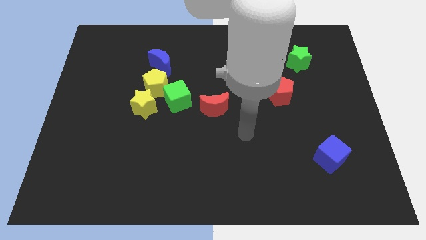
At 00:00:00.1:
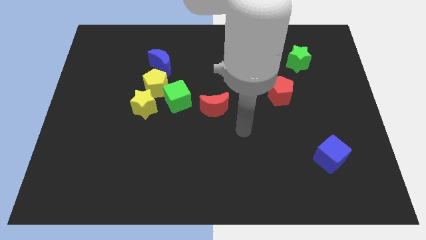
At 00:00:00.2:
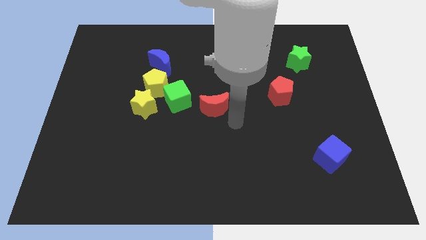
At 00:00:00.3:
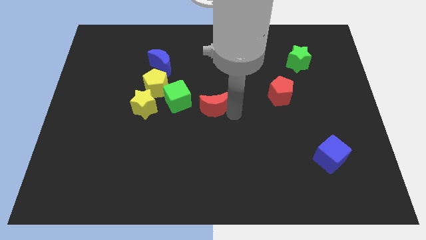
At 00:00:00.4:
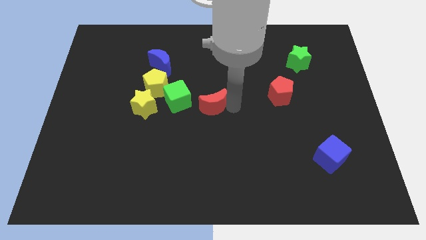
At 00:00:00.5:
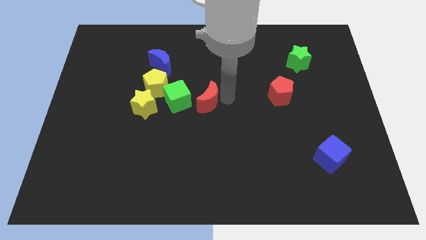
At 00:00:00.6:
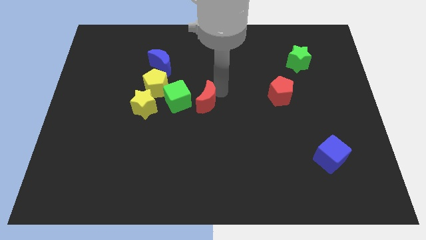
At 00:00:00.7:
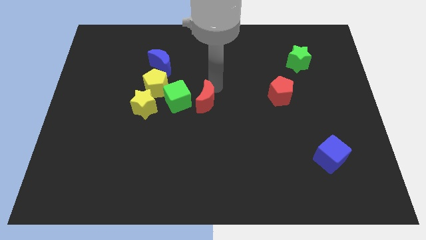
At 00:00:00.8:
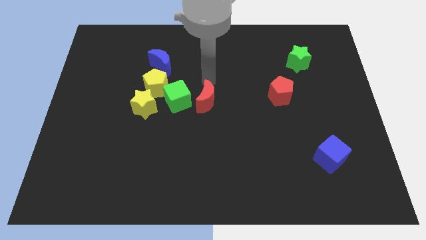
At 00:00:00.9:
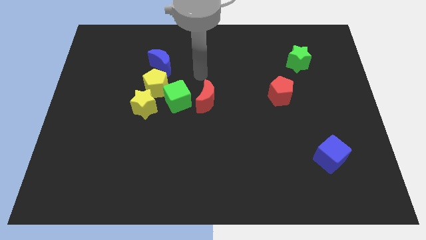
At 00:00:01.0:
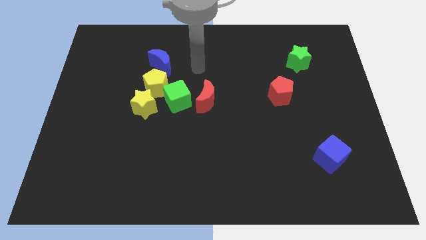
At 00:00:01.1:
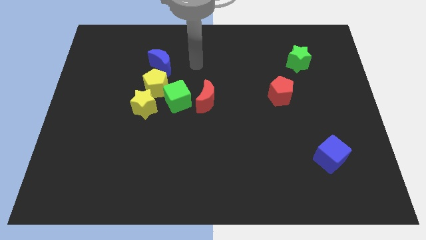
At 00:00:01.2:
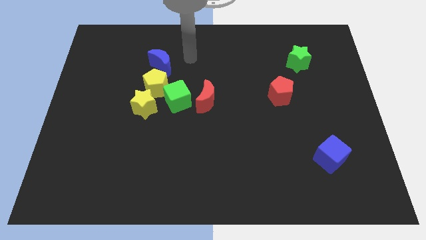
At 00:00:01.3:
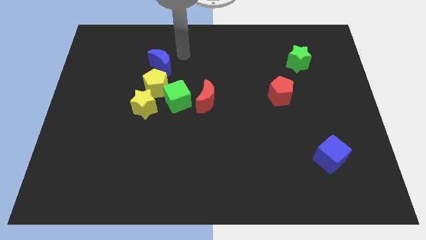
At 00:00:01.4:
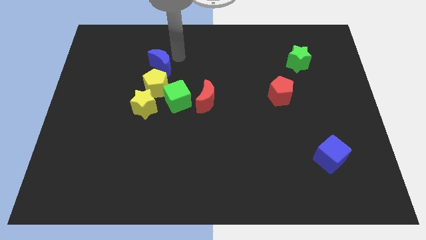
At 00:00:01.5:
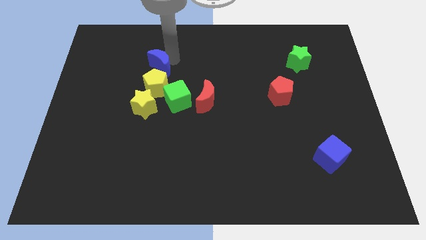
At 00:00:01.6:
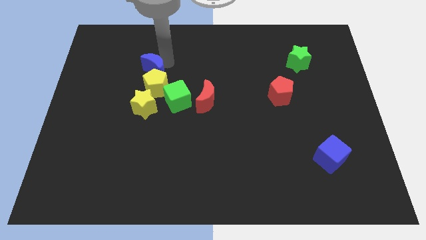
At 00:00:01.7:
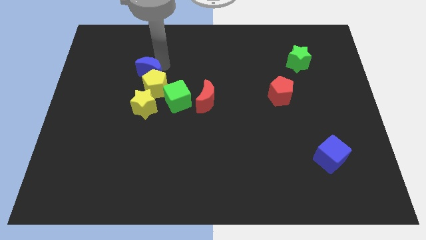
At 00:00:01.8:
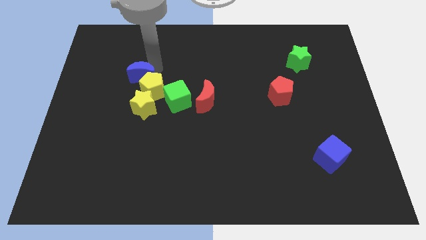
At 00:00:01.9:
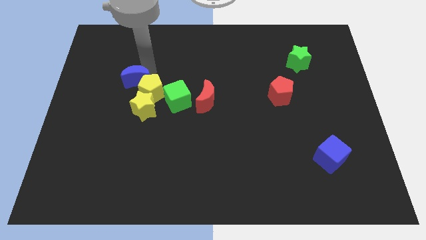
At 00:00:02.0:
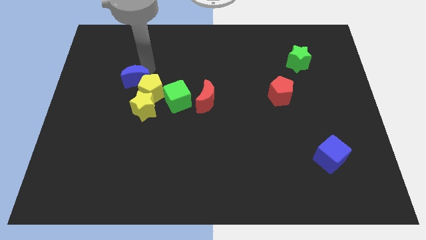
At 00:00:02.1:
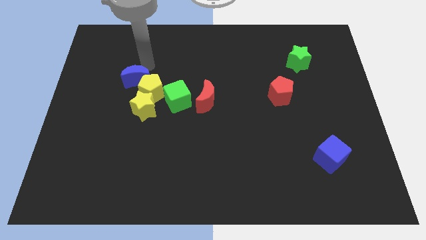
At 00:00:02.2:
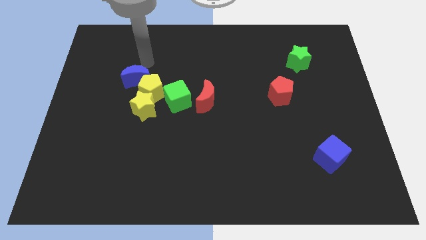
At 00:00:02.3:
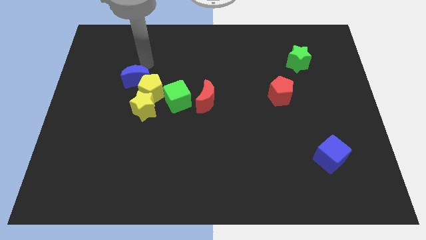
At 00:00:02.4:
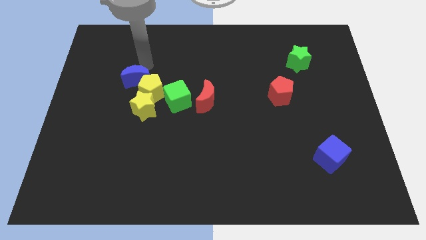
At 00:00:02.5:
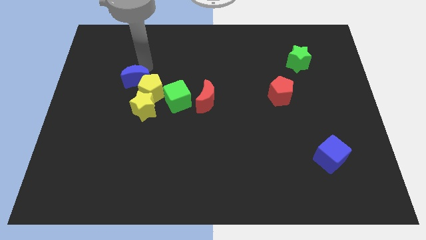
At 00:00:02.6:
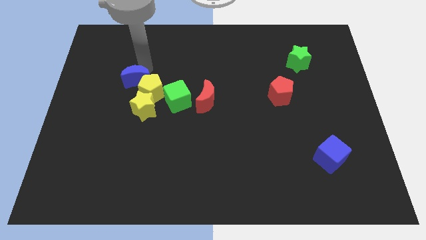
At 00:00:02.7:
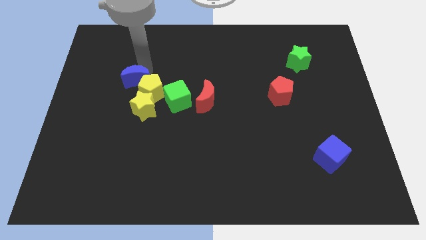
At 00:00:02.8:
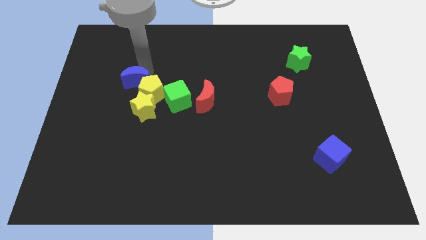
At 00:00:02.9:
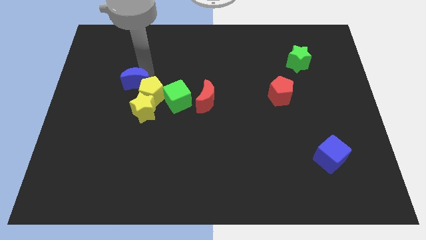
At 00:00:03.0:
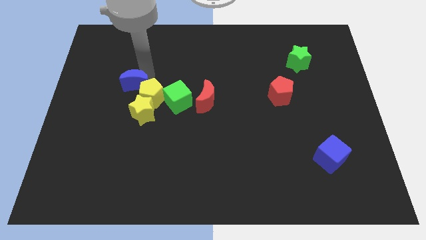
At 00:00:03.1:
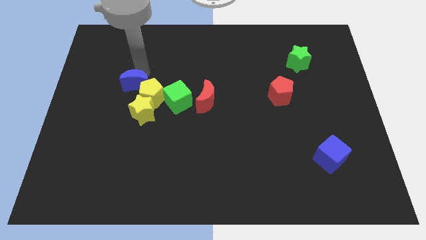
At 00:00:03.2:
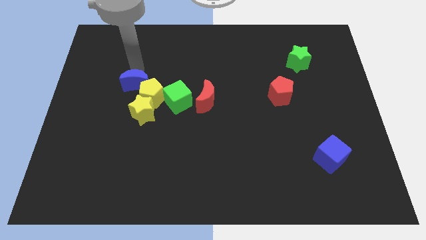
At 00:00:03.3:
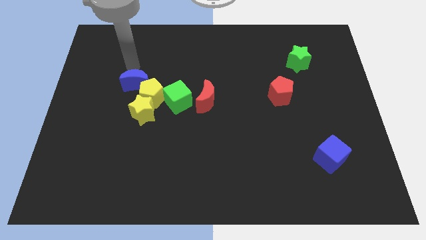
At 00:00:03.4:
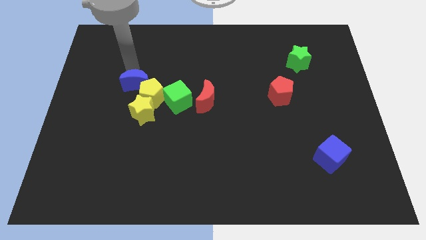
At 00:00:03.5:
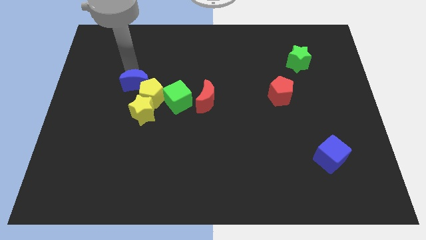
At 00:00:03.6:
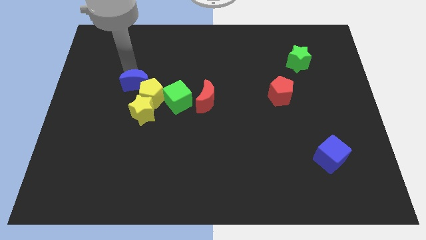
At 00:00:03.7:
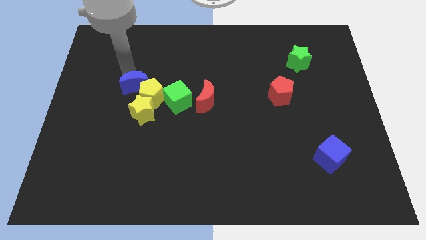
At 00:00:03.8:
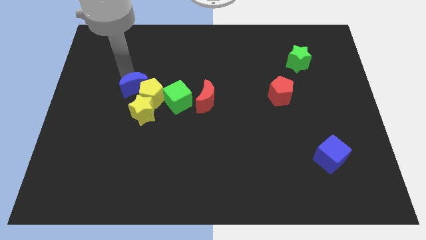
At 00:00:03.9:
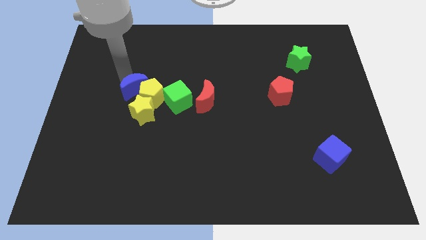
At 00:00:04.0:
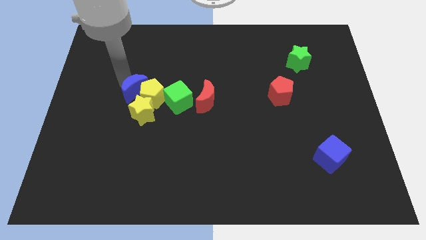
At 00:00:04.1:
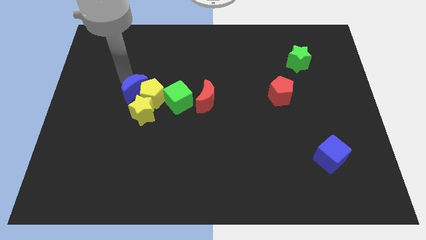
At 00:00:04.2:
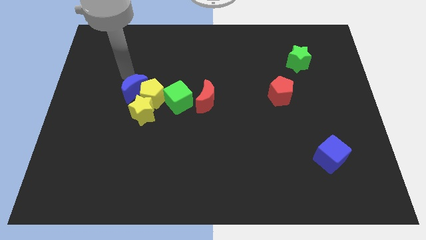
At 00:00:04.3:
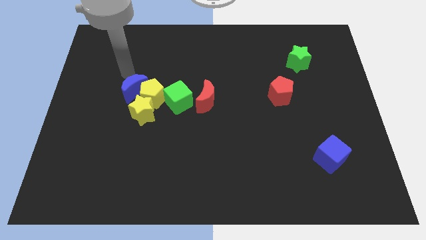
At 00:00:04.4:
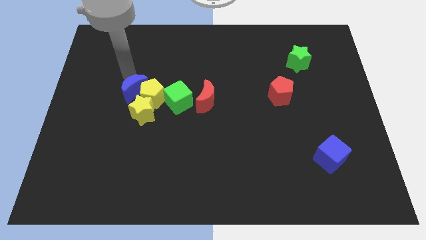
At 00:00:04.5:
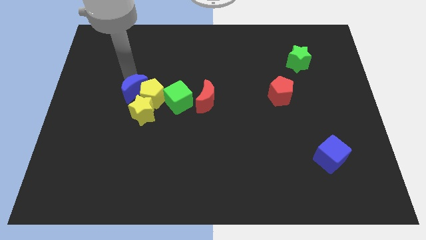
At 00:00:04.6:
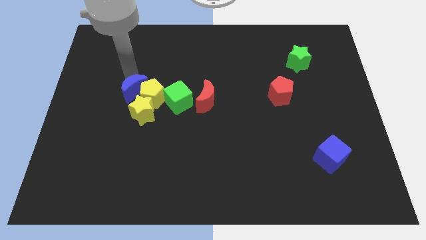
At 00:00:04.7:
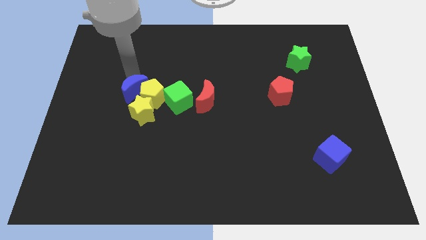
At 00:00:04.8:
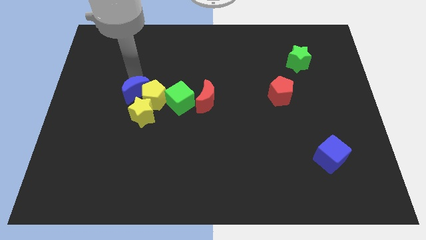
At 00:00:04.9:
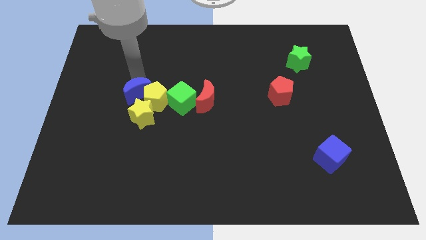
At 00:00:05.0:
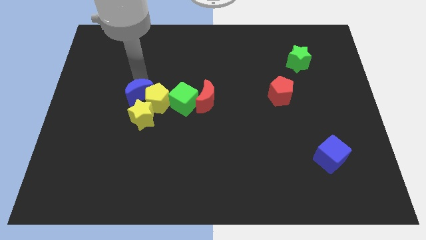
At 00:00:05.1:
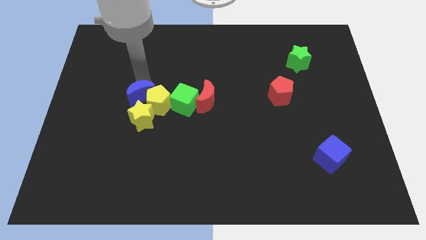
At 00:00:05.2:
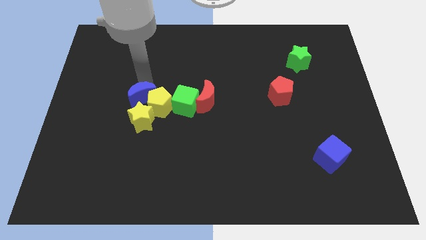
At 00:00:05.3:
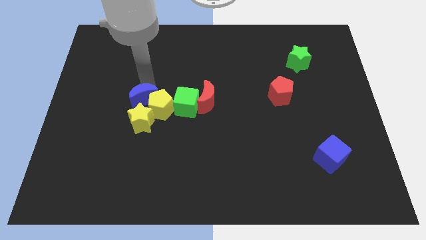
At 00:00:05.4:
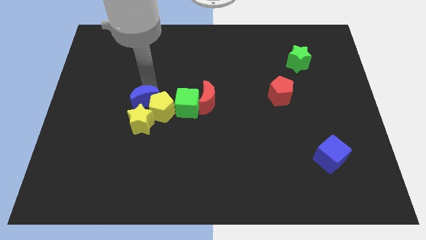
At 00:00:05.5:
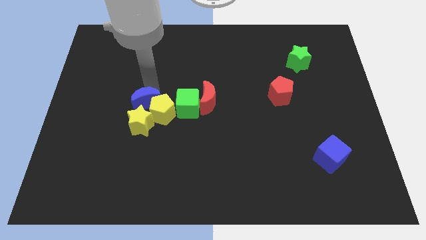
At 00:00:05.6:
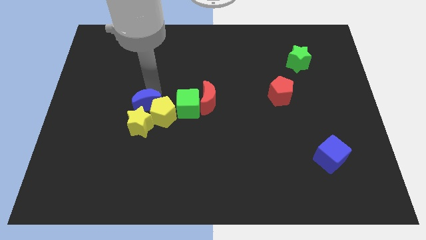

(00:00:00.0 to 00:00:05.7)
slide the blue moon next to the yellow star
